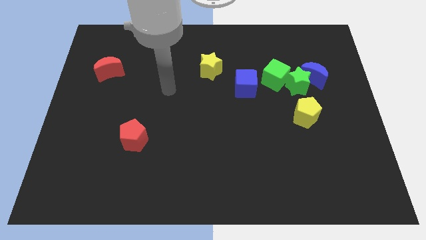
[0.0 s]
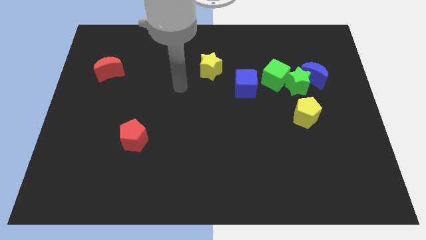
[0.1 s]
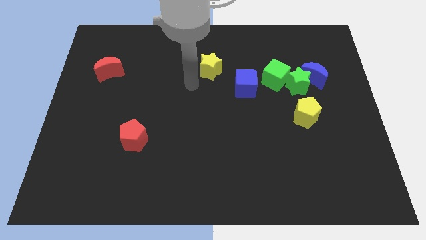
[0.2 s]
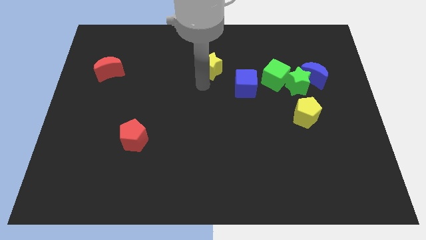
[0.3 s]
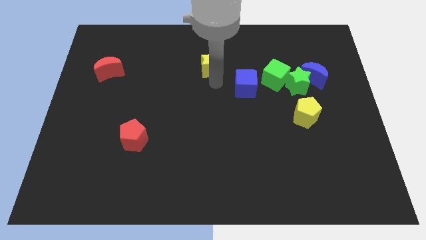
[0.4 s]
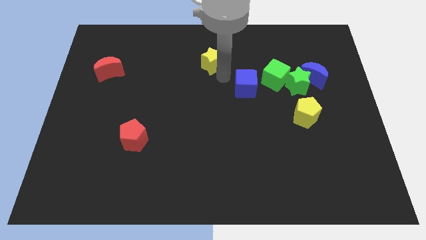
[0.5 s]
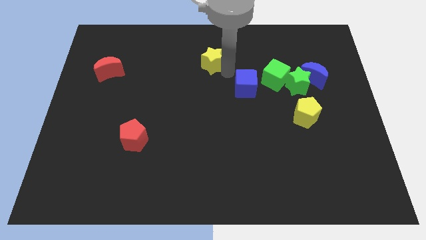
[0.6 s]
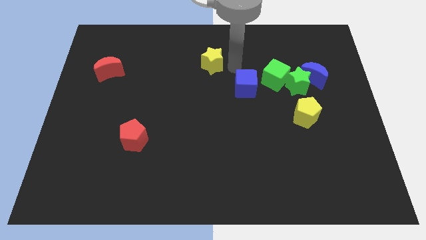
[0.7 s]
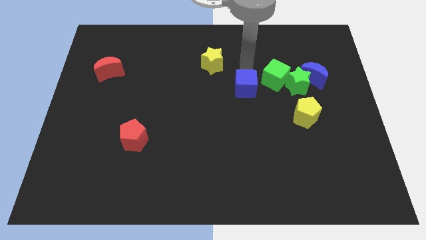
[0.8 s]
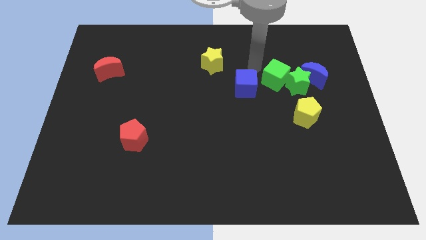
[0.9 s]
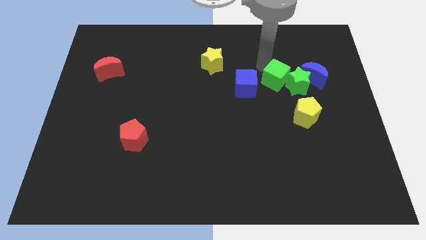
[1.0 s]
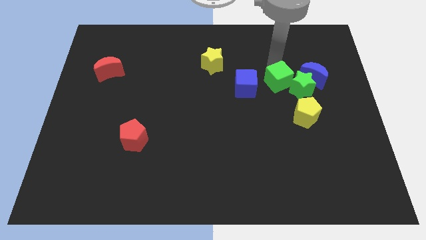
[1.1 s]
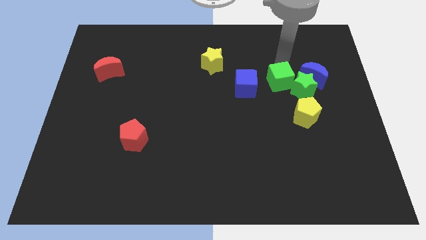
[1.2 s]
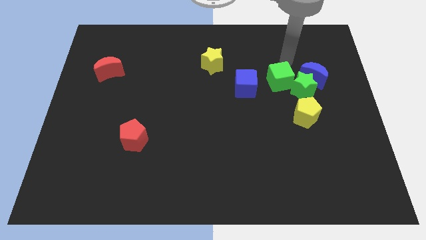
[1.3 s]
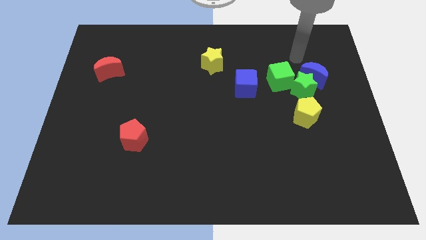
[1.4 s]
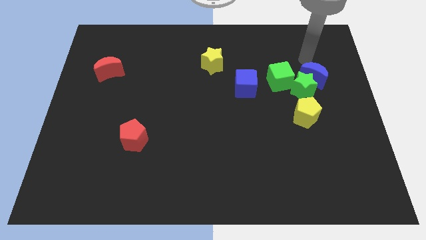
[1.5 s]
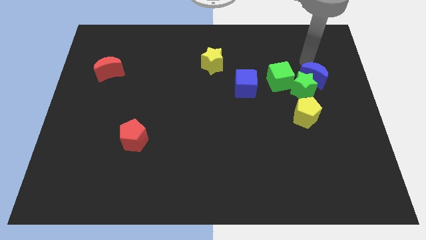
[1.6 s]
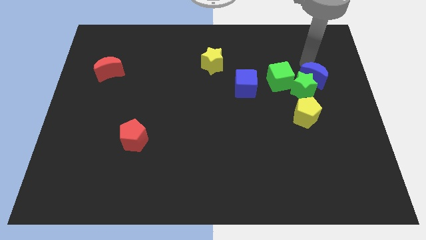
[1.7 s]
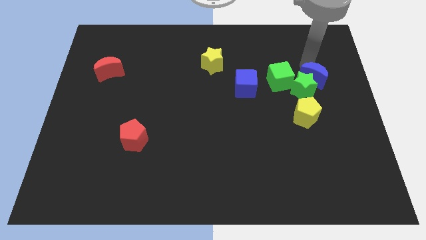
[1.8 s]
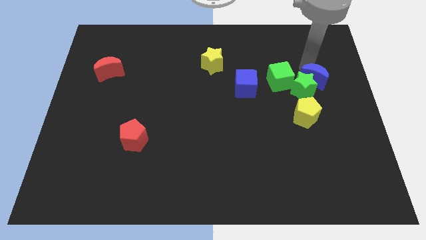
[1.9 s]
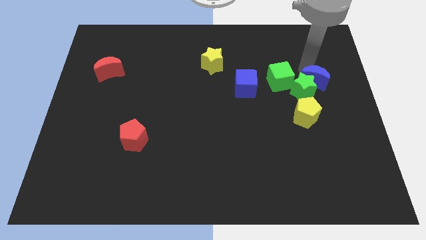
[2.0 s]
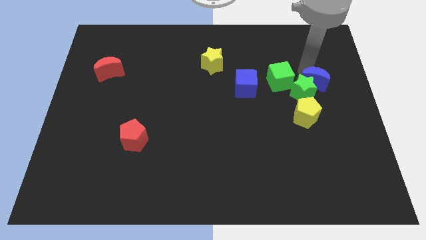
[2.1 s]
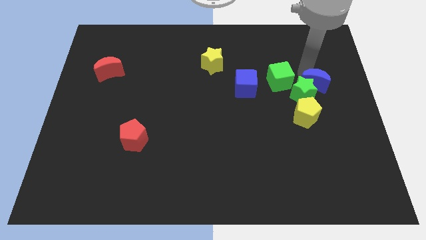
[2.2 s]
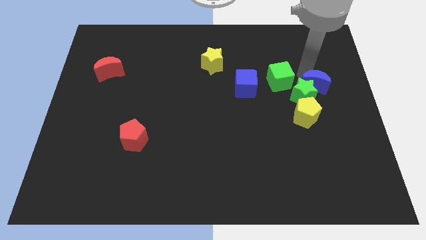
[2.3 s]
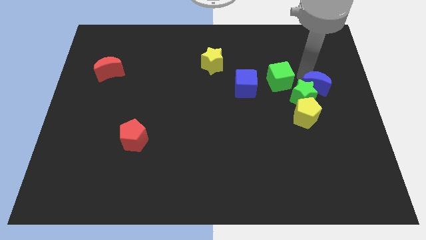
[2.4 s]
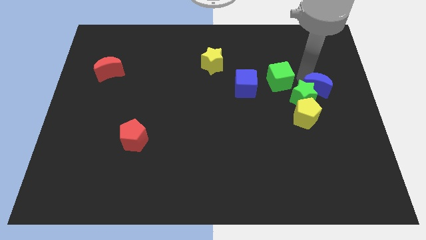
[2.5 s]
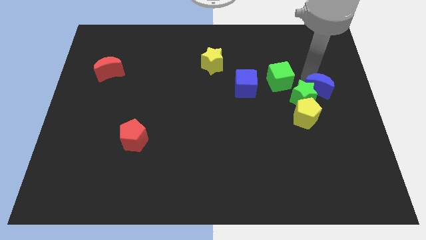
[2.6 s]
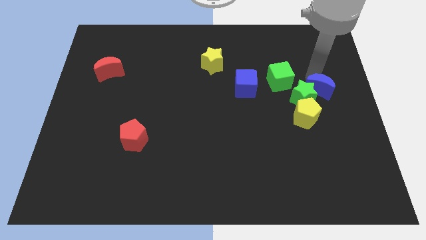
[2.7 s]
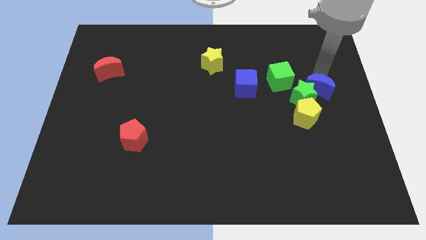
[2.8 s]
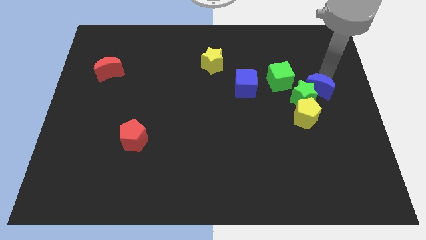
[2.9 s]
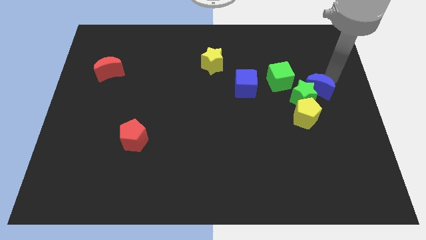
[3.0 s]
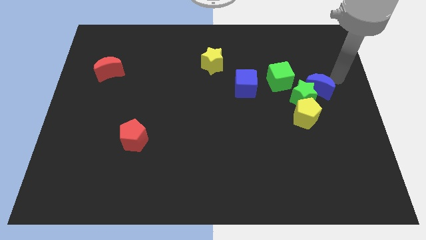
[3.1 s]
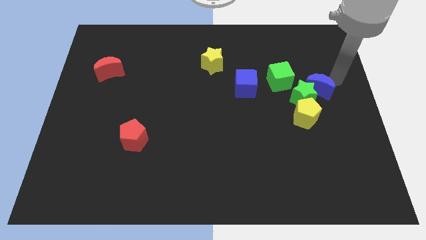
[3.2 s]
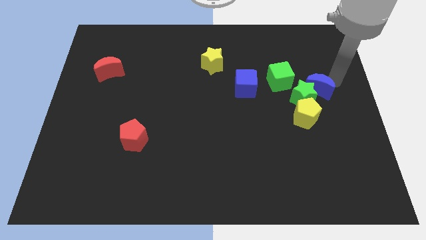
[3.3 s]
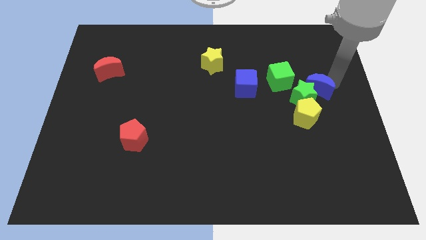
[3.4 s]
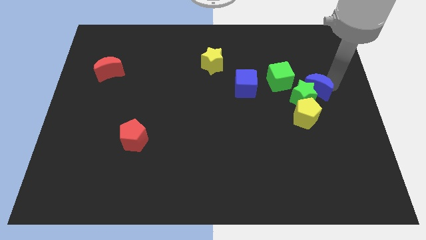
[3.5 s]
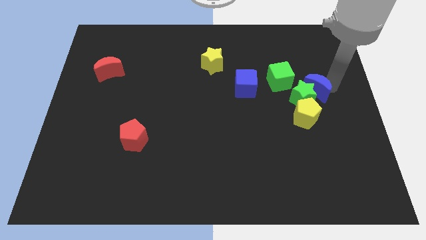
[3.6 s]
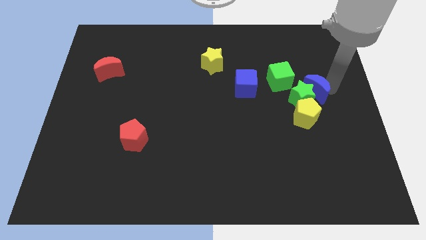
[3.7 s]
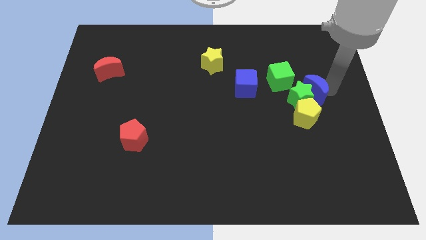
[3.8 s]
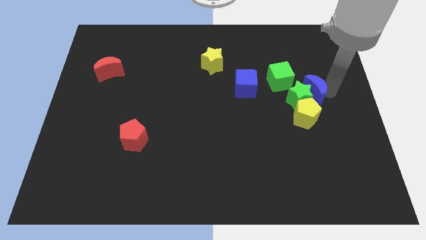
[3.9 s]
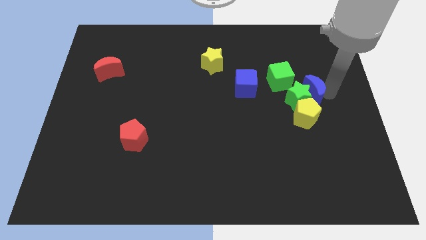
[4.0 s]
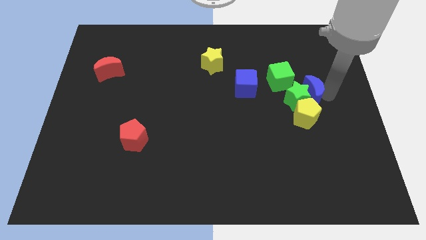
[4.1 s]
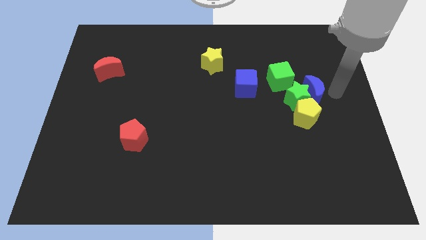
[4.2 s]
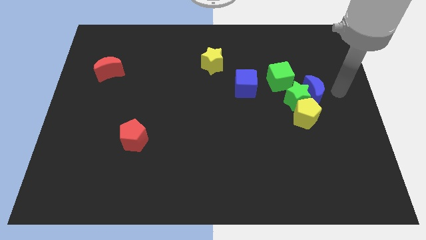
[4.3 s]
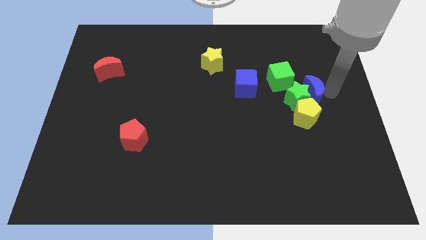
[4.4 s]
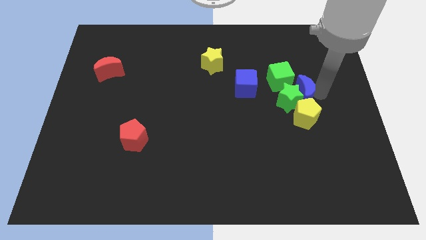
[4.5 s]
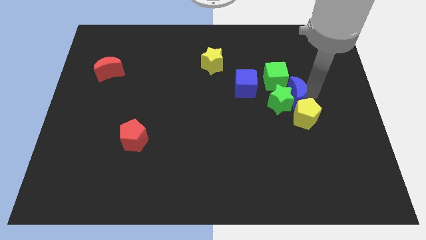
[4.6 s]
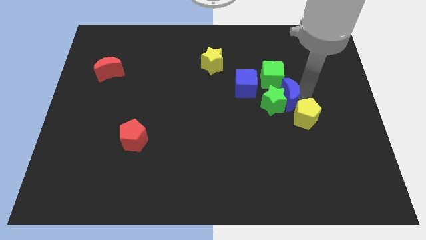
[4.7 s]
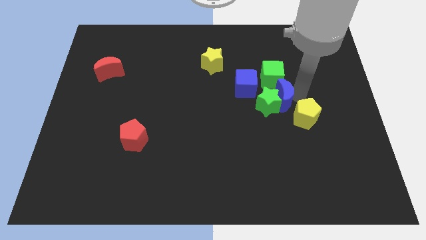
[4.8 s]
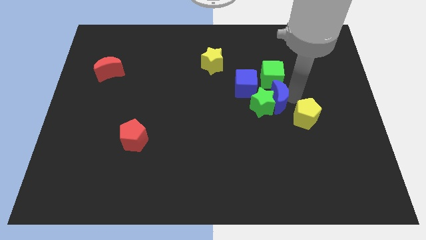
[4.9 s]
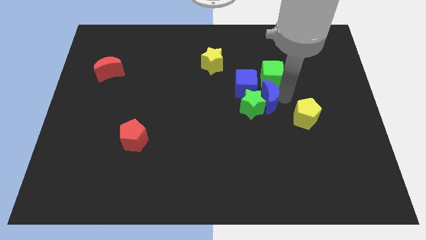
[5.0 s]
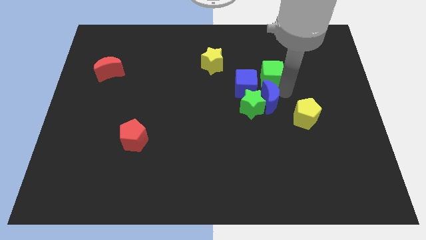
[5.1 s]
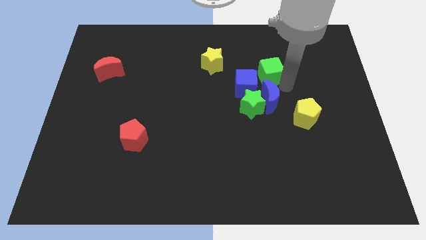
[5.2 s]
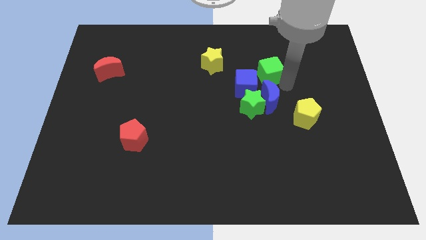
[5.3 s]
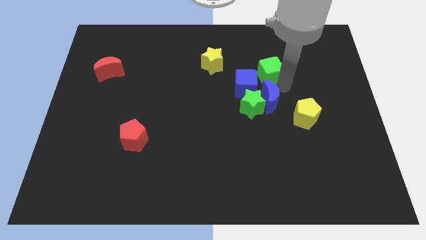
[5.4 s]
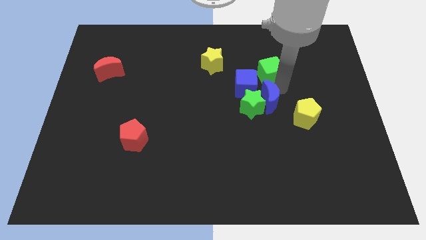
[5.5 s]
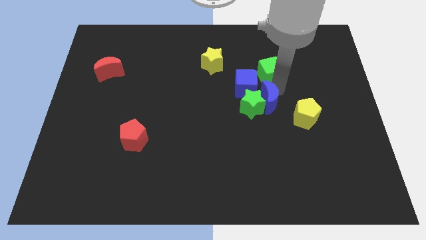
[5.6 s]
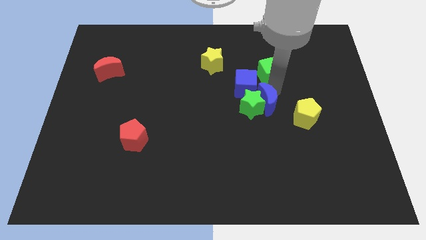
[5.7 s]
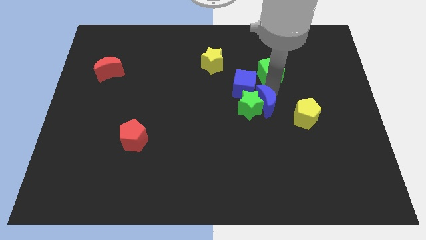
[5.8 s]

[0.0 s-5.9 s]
slide the blue moon to the bottom side of the blue cube

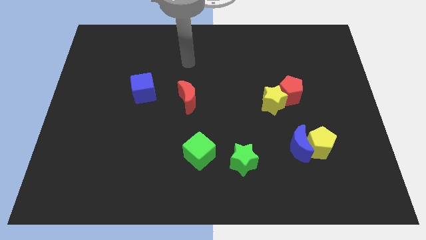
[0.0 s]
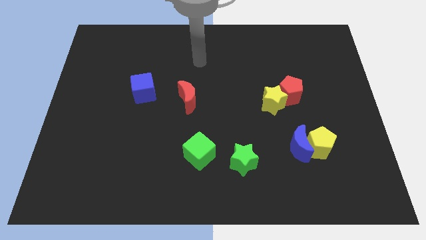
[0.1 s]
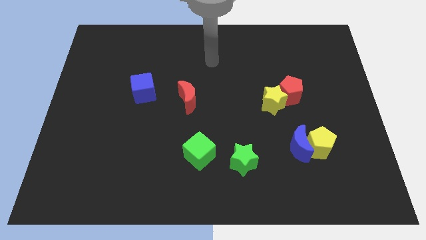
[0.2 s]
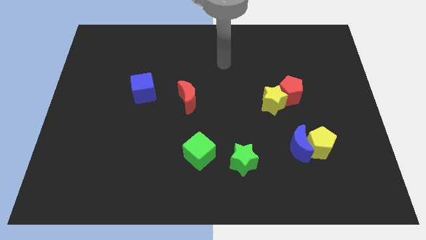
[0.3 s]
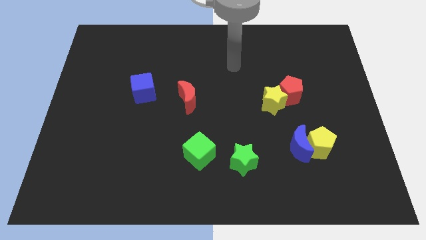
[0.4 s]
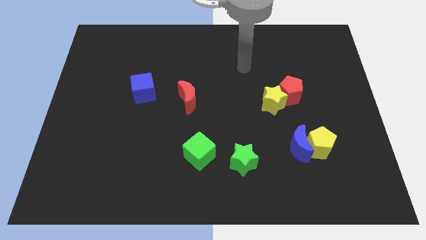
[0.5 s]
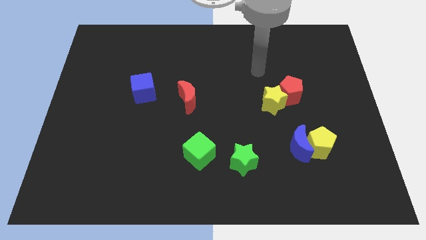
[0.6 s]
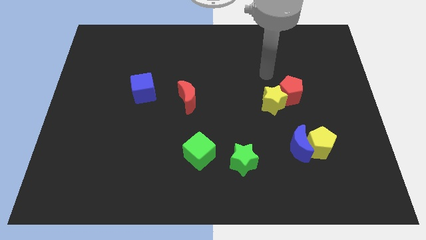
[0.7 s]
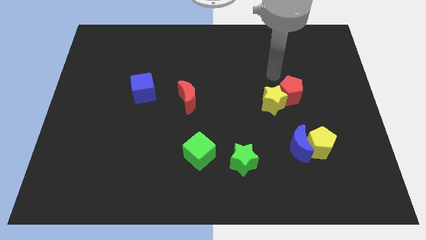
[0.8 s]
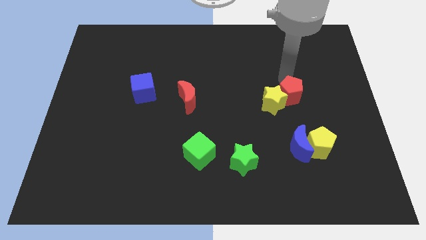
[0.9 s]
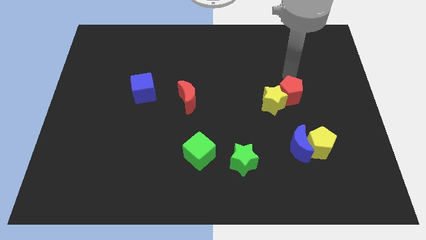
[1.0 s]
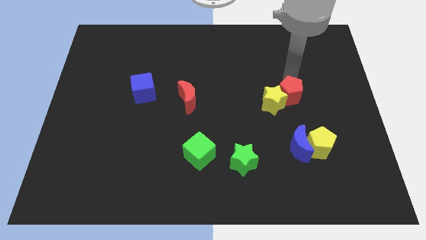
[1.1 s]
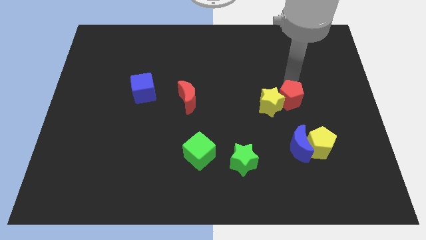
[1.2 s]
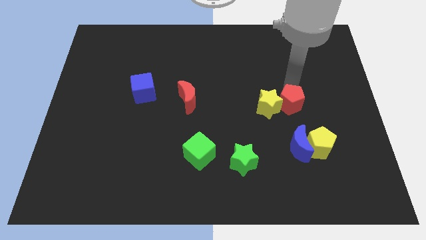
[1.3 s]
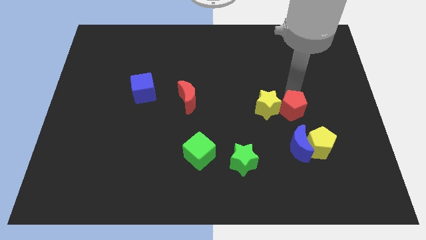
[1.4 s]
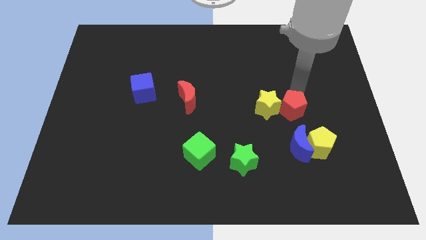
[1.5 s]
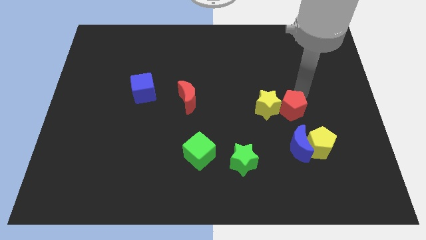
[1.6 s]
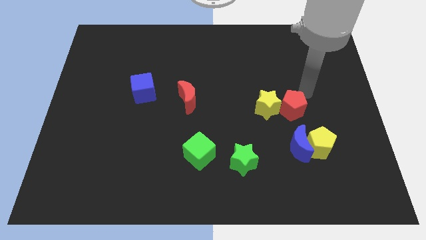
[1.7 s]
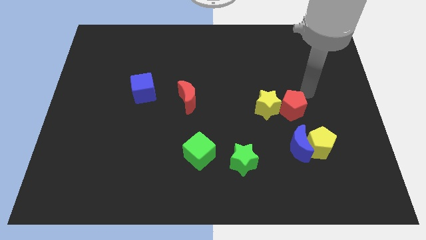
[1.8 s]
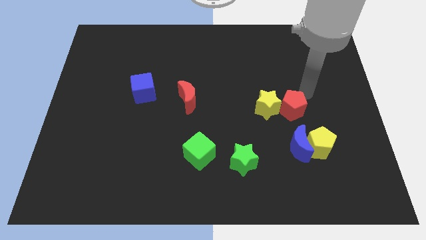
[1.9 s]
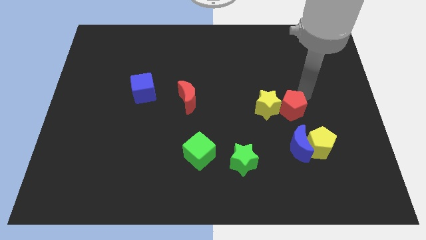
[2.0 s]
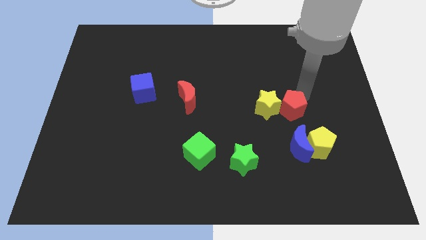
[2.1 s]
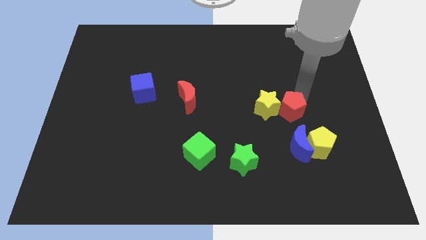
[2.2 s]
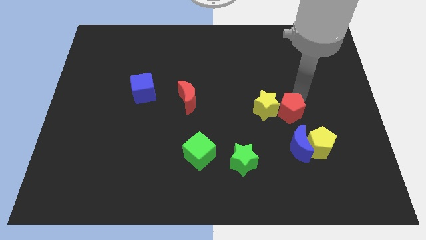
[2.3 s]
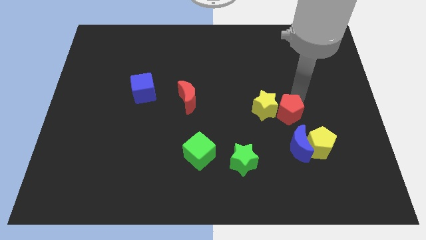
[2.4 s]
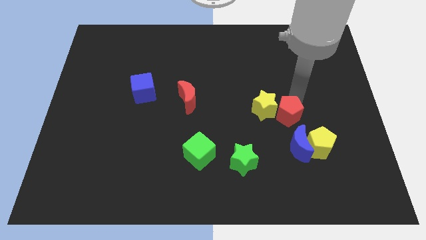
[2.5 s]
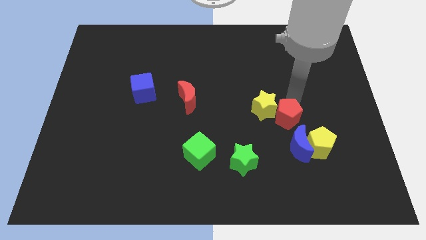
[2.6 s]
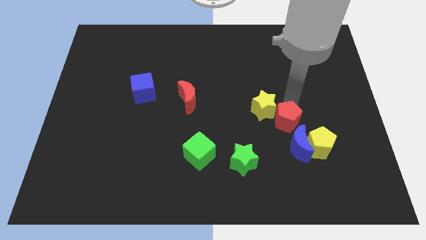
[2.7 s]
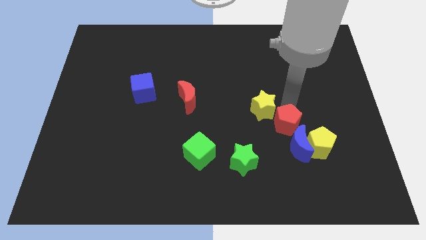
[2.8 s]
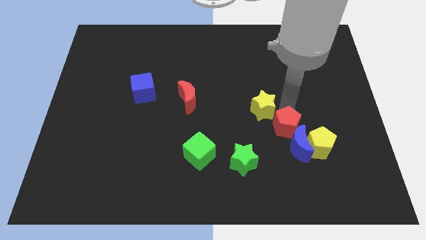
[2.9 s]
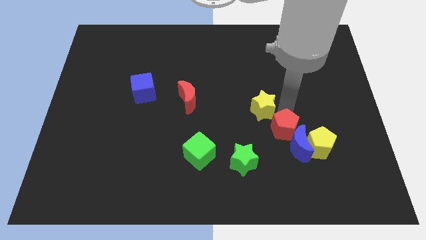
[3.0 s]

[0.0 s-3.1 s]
move the red pentagon just left of the yellow pentagon
